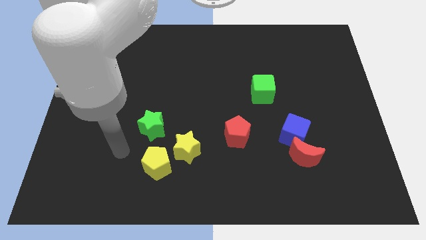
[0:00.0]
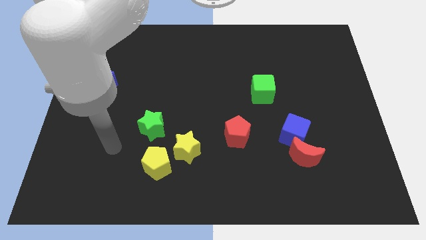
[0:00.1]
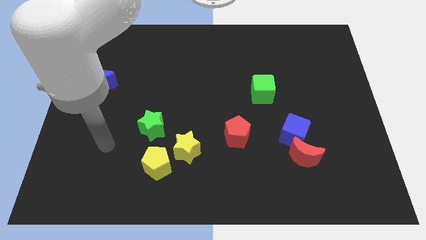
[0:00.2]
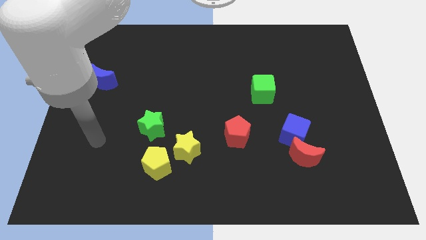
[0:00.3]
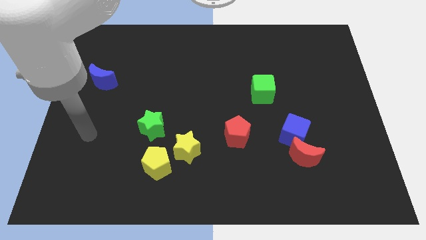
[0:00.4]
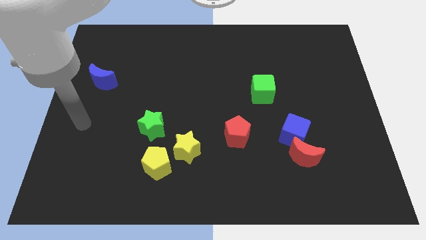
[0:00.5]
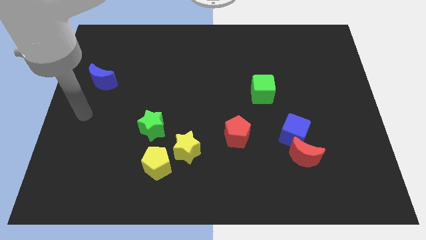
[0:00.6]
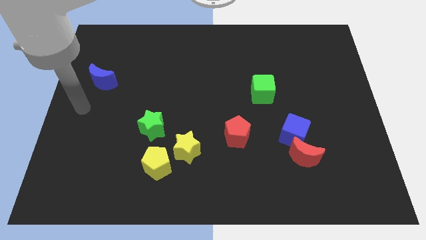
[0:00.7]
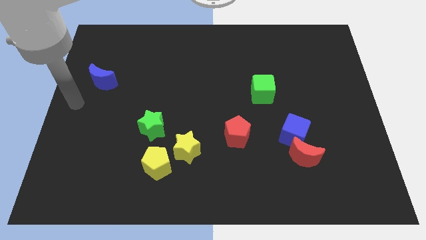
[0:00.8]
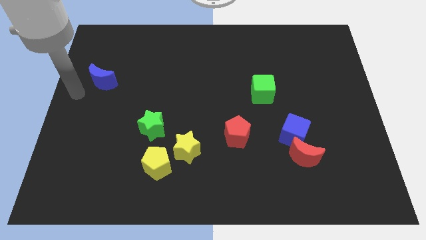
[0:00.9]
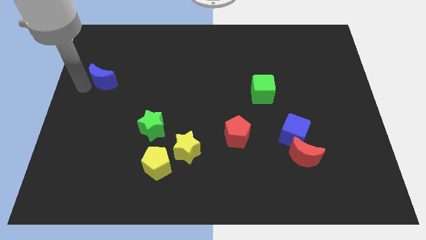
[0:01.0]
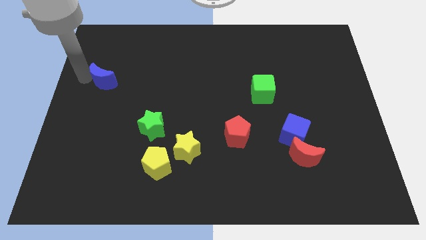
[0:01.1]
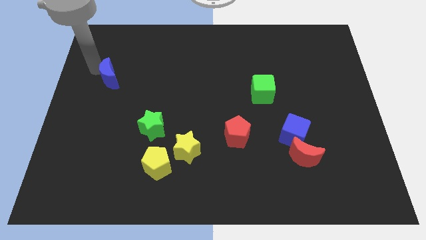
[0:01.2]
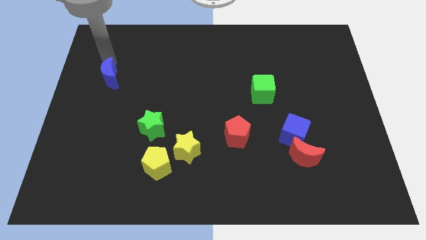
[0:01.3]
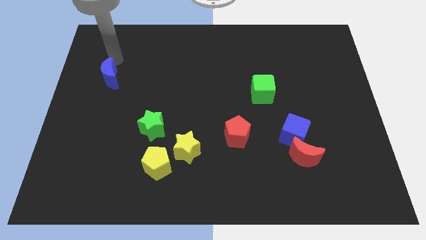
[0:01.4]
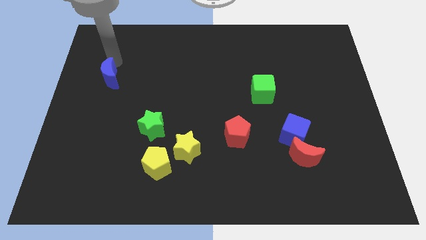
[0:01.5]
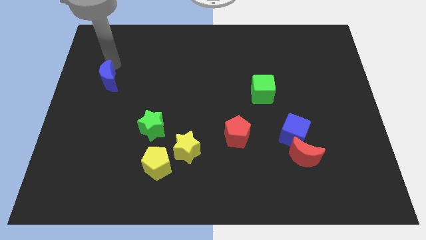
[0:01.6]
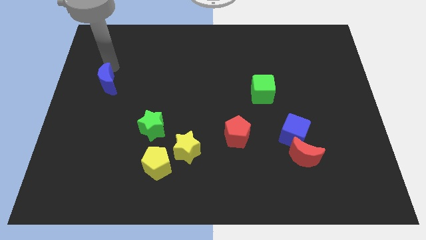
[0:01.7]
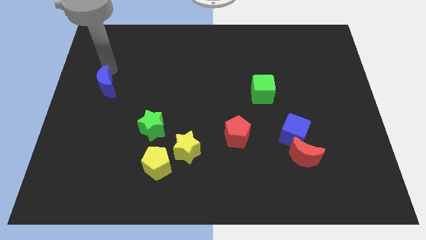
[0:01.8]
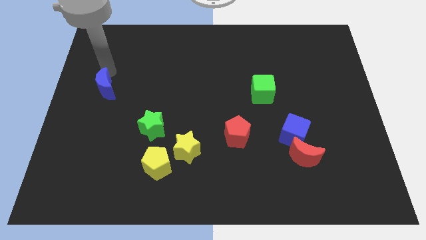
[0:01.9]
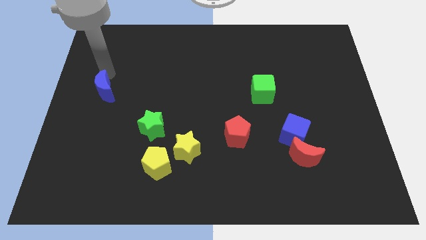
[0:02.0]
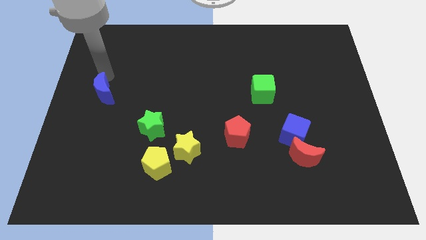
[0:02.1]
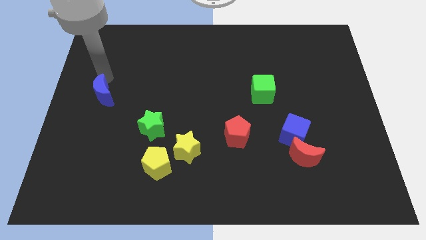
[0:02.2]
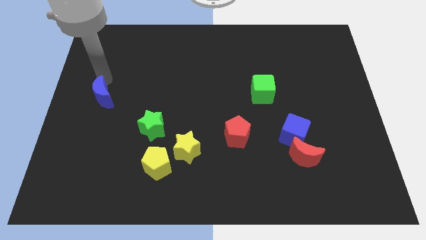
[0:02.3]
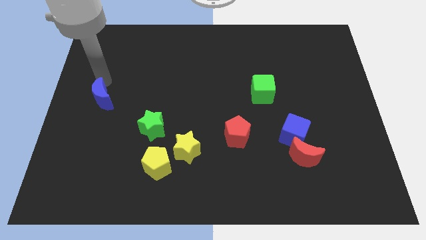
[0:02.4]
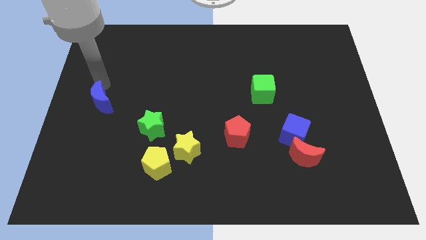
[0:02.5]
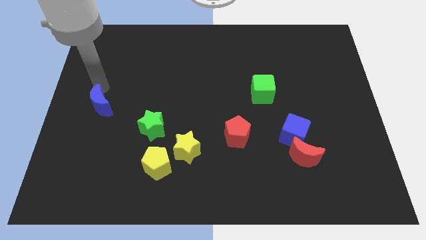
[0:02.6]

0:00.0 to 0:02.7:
move the blue moon somewhat downwards

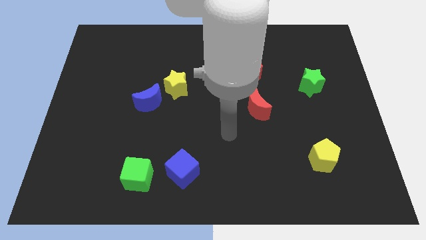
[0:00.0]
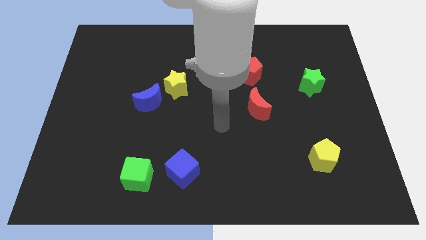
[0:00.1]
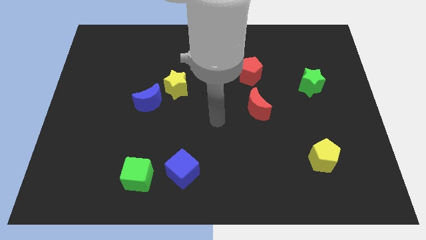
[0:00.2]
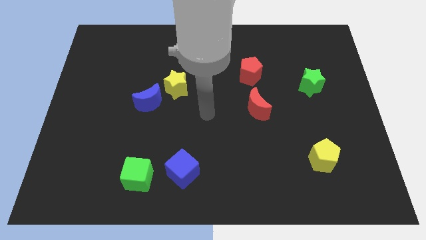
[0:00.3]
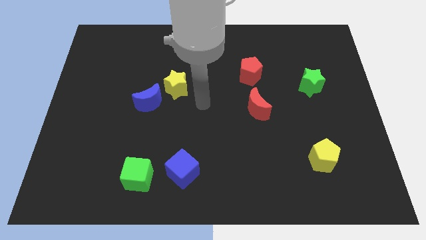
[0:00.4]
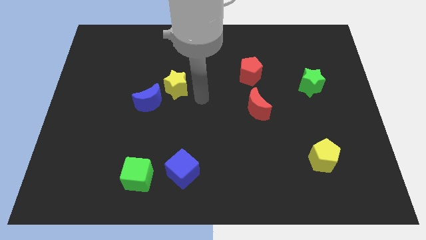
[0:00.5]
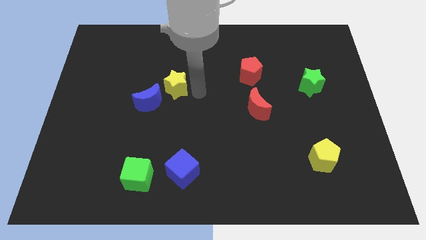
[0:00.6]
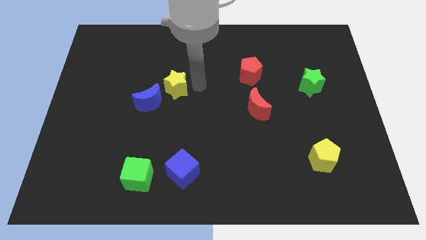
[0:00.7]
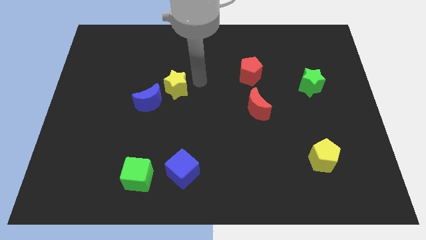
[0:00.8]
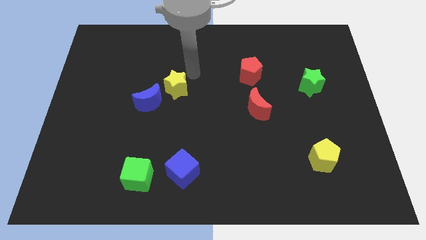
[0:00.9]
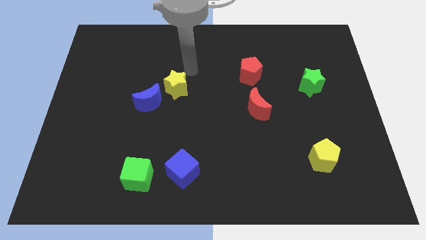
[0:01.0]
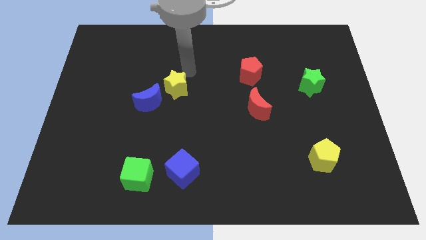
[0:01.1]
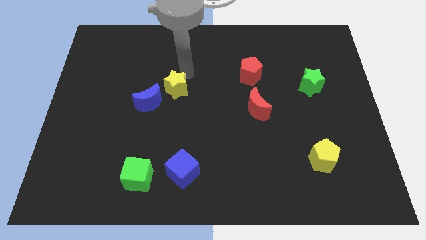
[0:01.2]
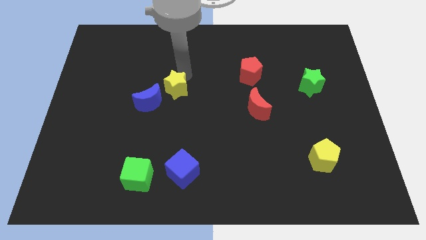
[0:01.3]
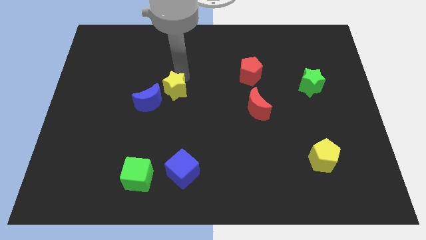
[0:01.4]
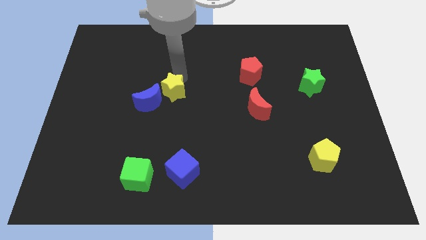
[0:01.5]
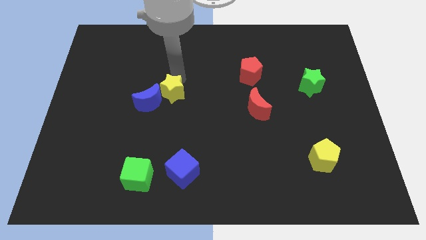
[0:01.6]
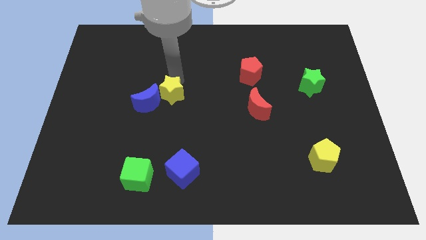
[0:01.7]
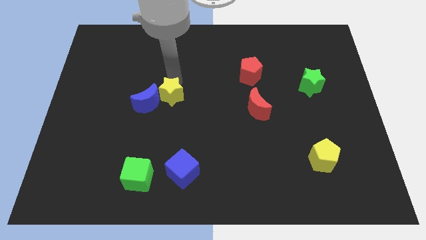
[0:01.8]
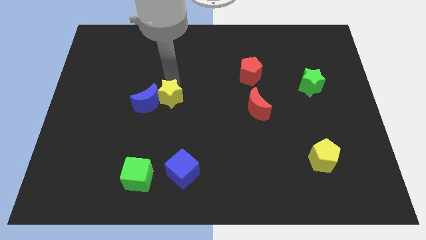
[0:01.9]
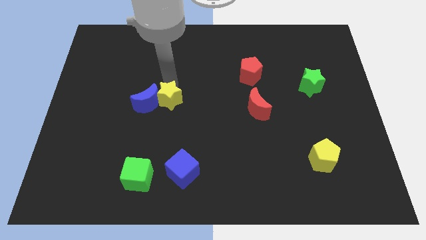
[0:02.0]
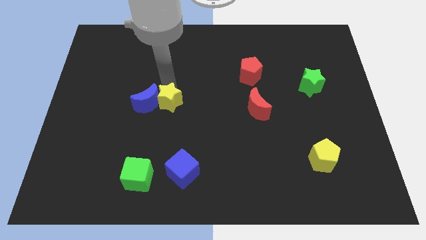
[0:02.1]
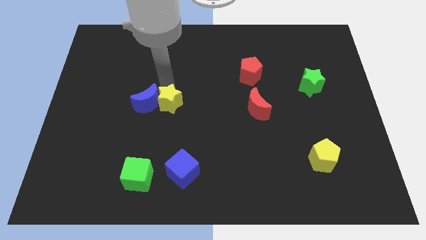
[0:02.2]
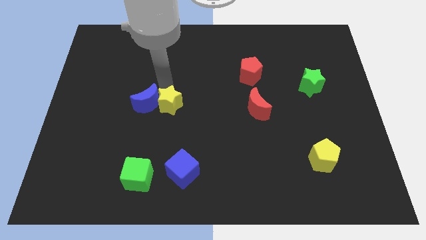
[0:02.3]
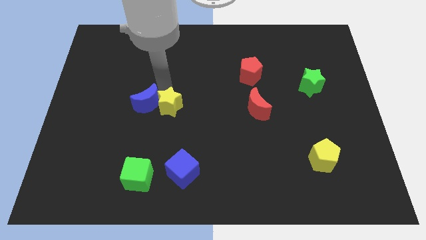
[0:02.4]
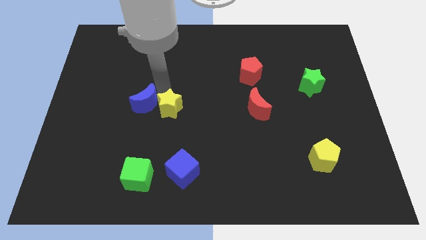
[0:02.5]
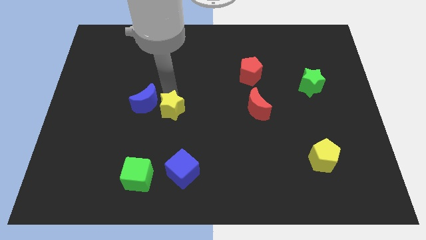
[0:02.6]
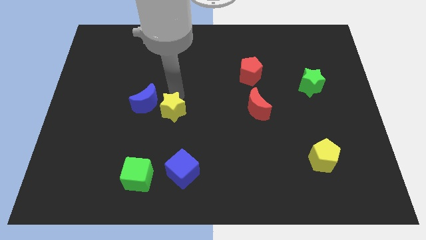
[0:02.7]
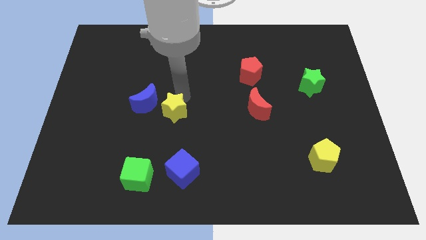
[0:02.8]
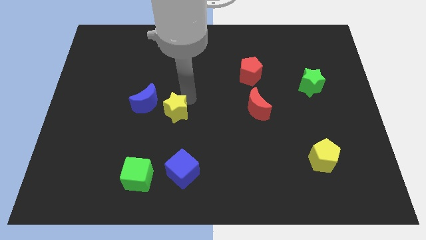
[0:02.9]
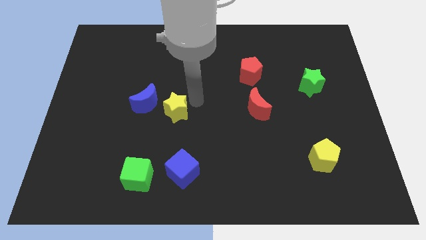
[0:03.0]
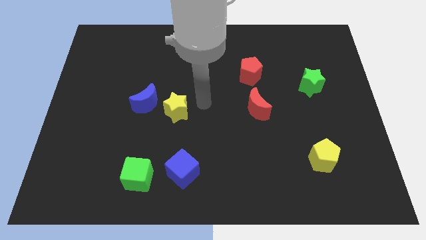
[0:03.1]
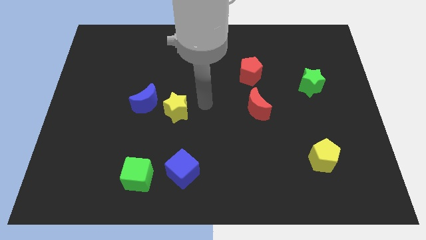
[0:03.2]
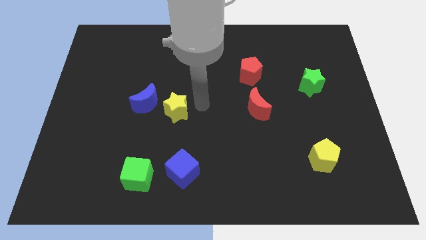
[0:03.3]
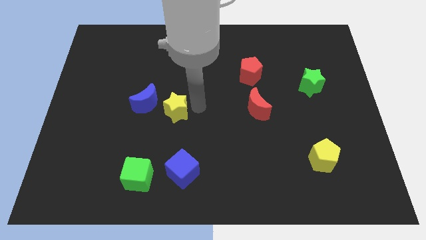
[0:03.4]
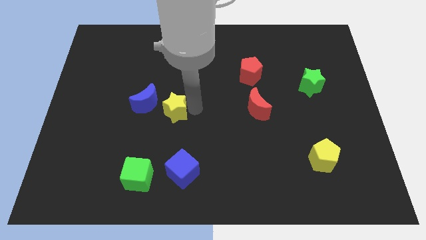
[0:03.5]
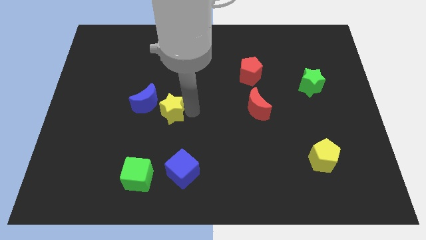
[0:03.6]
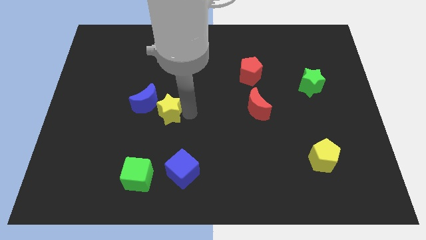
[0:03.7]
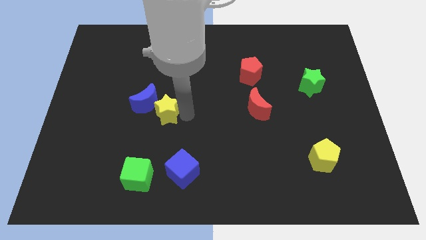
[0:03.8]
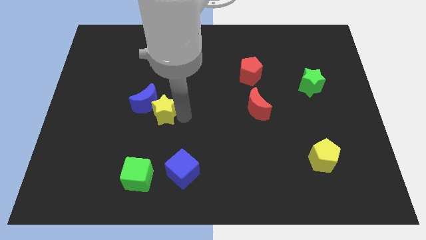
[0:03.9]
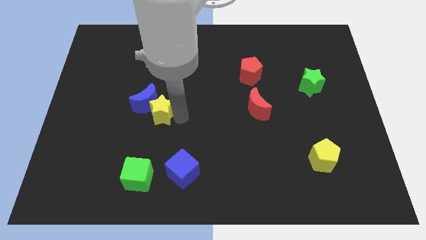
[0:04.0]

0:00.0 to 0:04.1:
slide the yellow star down and left a little bit

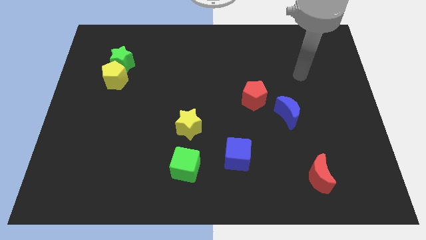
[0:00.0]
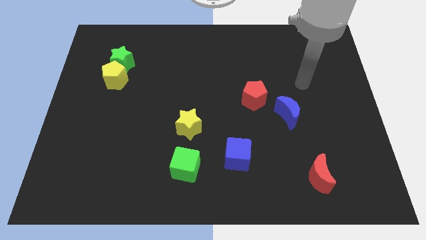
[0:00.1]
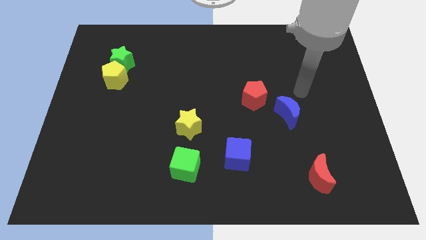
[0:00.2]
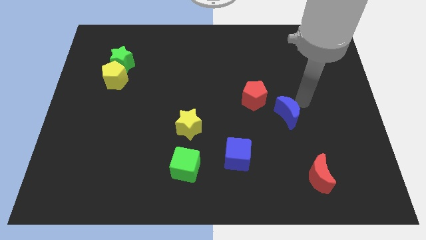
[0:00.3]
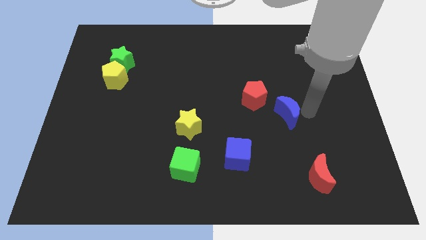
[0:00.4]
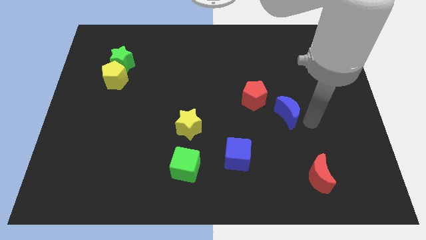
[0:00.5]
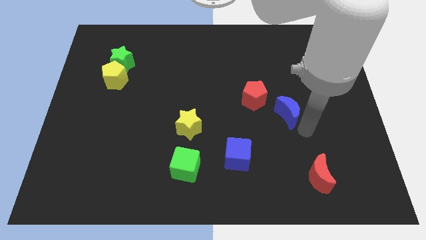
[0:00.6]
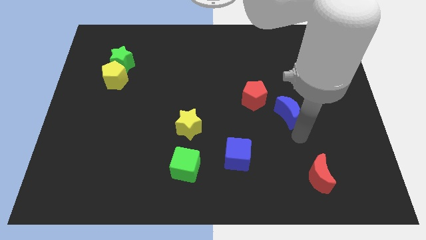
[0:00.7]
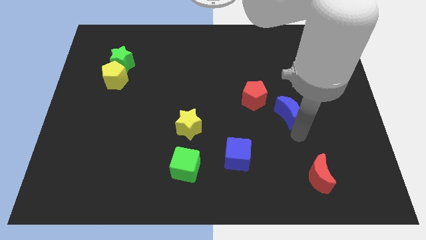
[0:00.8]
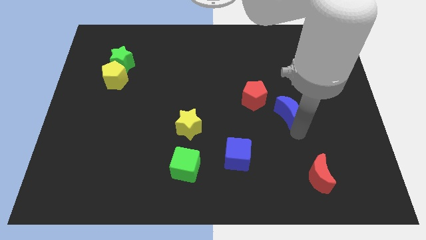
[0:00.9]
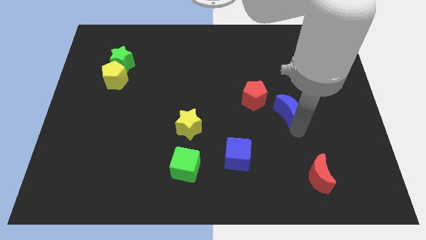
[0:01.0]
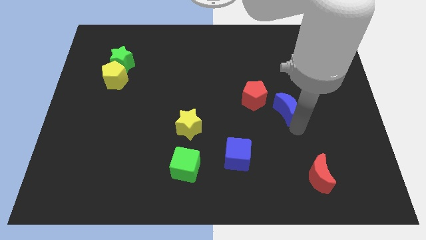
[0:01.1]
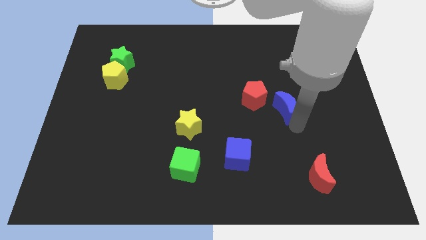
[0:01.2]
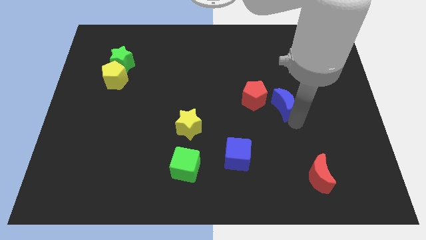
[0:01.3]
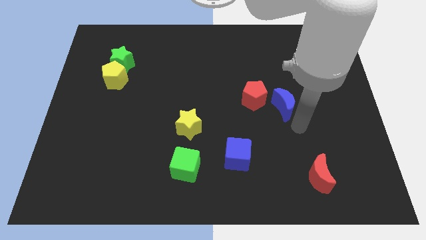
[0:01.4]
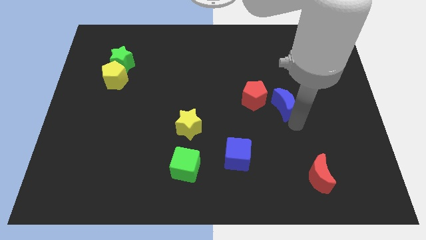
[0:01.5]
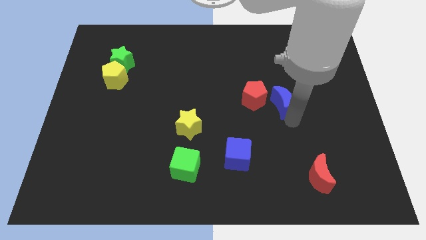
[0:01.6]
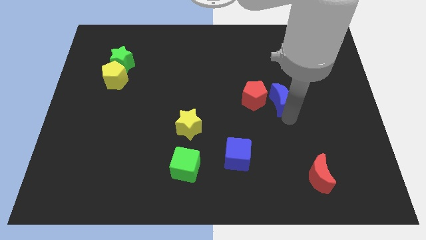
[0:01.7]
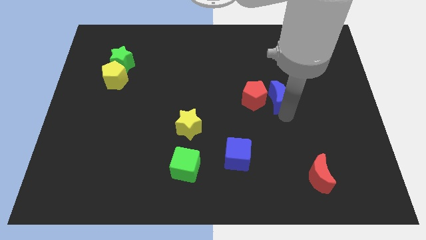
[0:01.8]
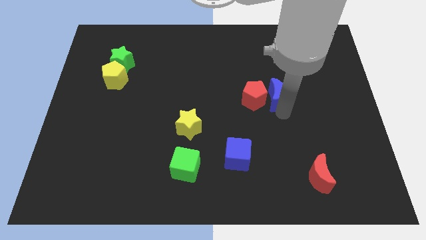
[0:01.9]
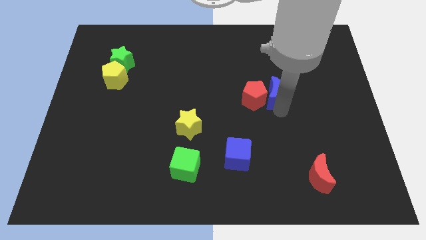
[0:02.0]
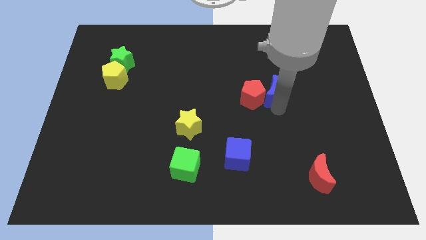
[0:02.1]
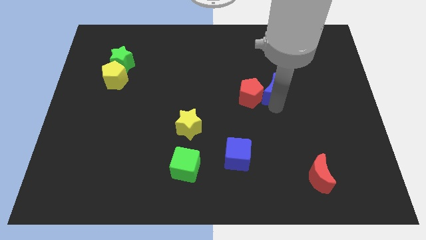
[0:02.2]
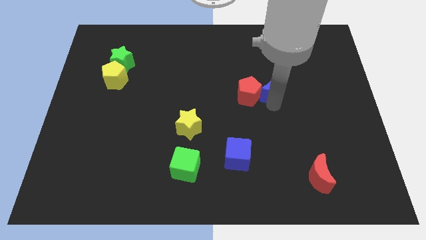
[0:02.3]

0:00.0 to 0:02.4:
slide the blue moon slightly diagonally up and to the left
